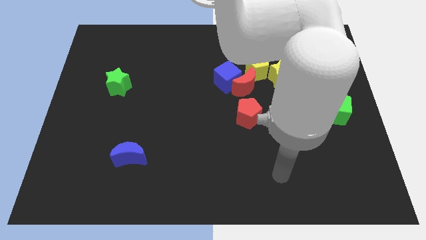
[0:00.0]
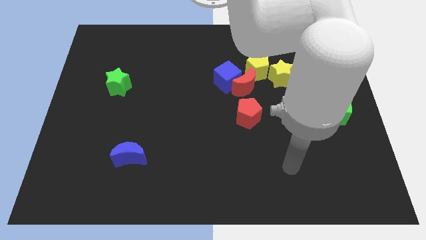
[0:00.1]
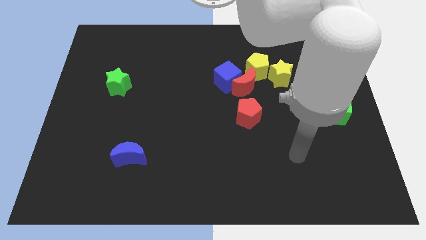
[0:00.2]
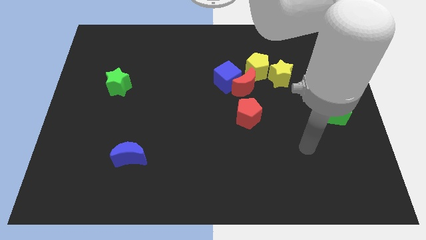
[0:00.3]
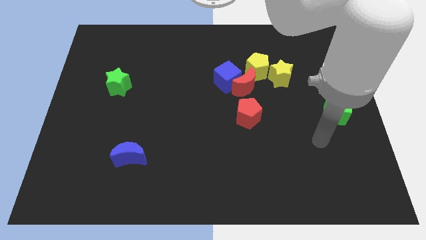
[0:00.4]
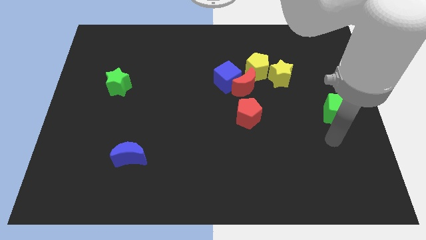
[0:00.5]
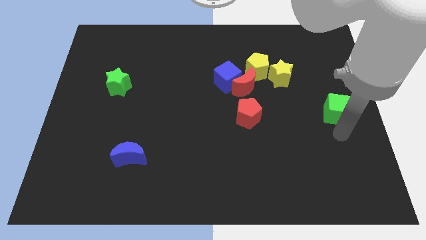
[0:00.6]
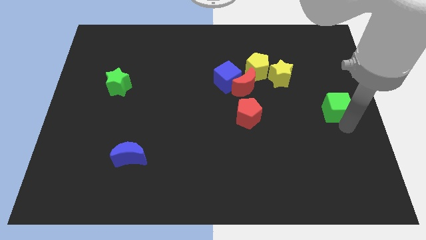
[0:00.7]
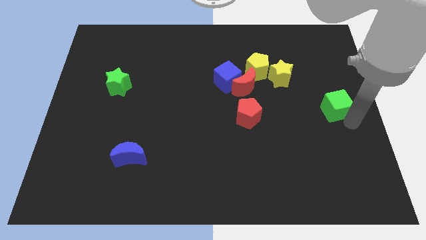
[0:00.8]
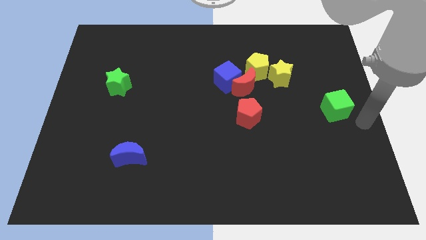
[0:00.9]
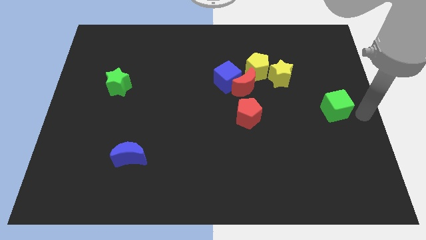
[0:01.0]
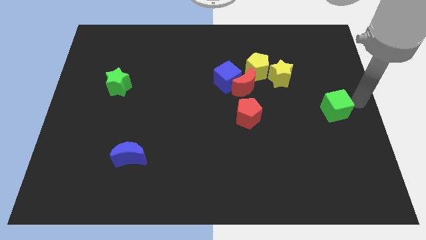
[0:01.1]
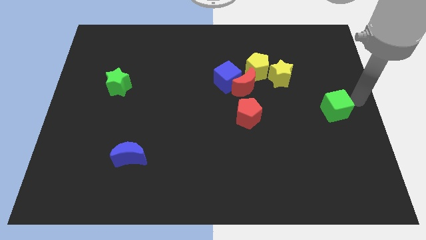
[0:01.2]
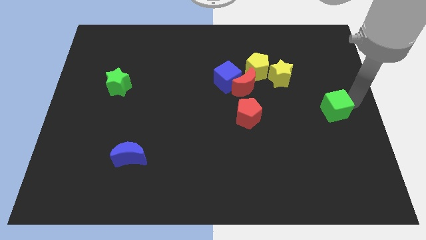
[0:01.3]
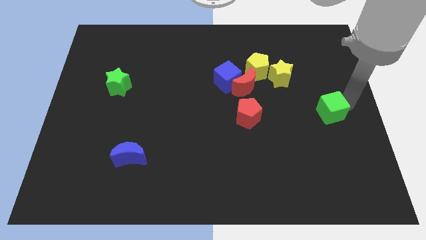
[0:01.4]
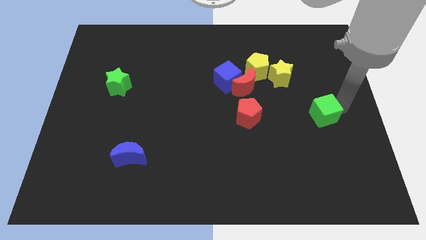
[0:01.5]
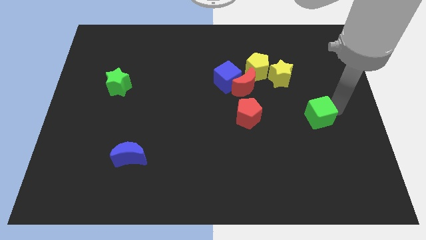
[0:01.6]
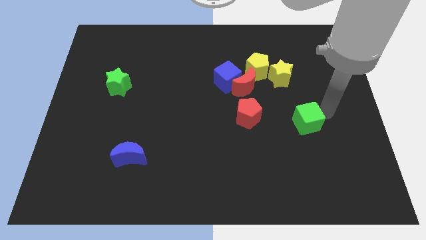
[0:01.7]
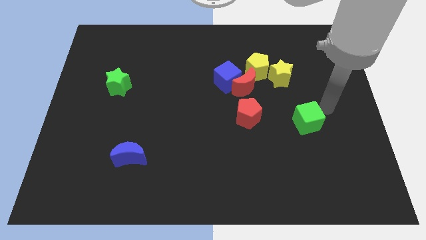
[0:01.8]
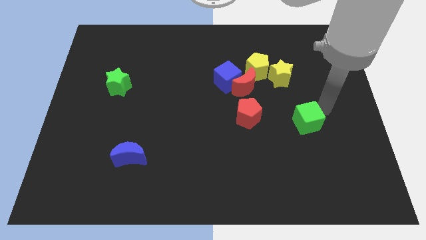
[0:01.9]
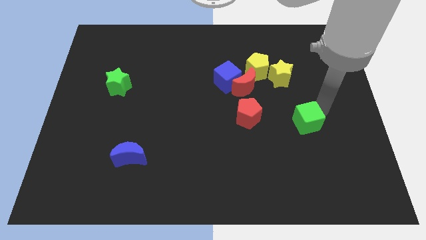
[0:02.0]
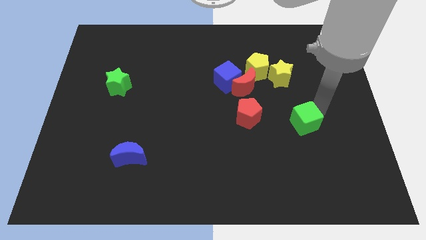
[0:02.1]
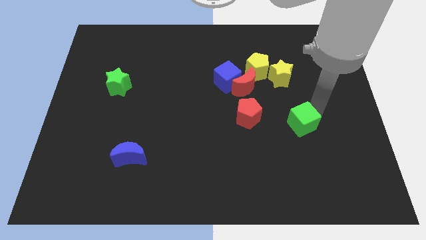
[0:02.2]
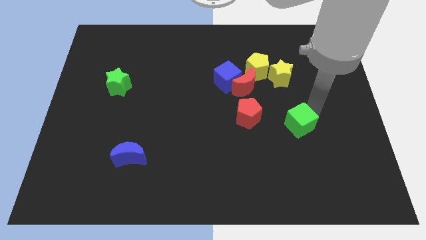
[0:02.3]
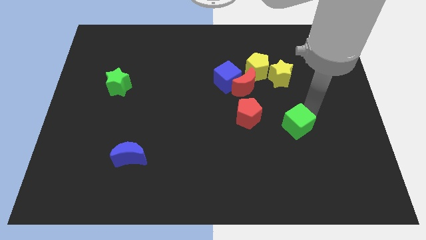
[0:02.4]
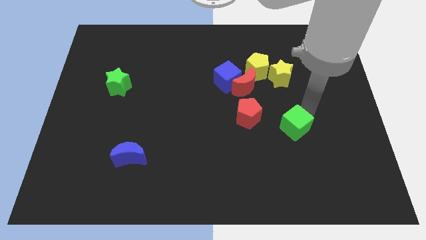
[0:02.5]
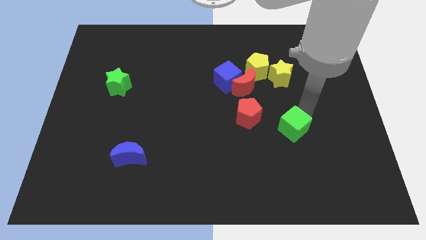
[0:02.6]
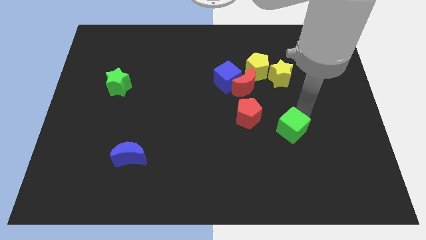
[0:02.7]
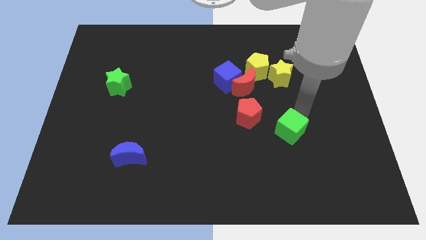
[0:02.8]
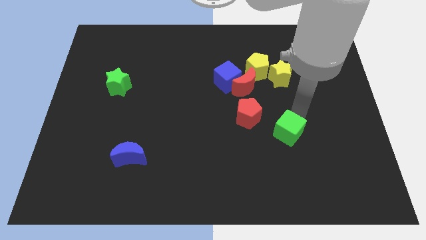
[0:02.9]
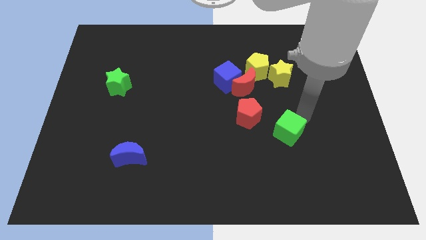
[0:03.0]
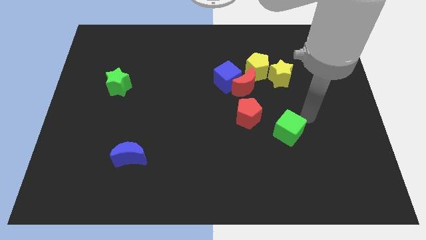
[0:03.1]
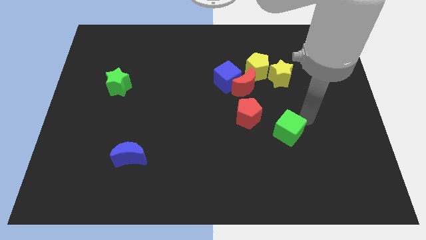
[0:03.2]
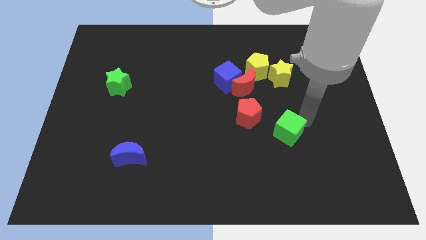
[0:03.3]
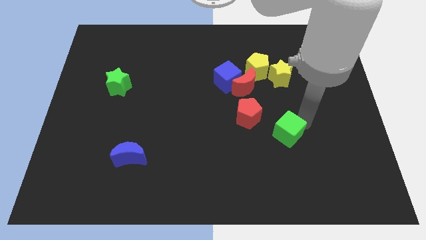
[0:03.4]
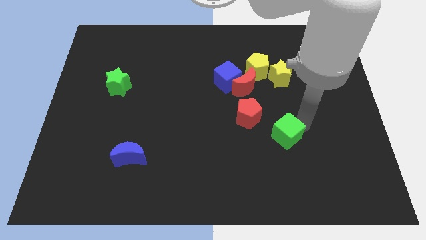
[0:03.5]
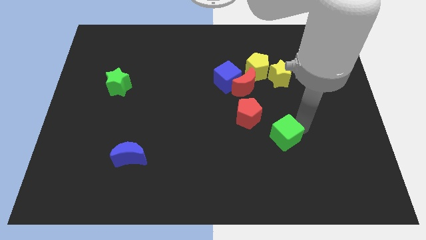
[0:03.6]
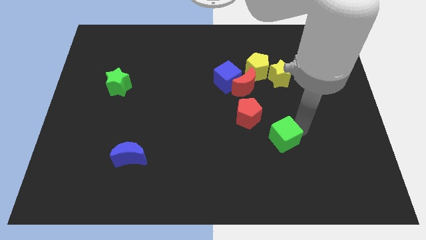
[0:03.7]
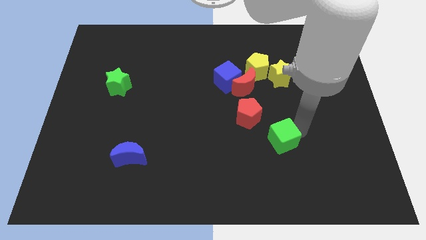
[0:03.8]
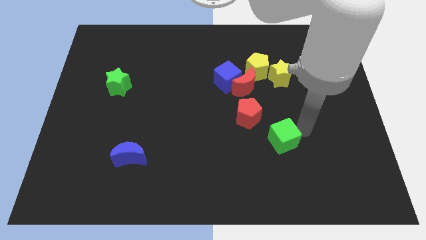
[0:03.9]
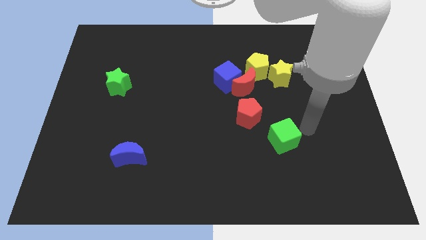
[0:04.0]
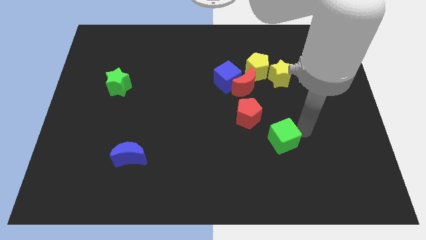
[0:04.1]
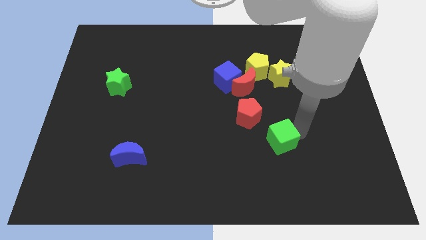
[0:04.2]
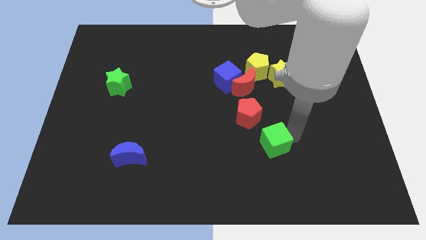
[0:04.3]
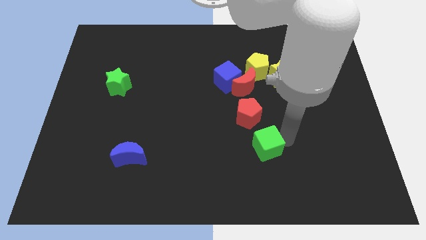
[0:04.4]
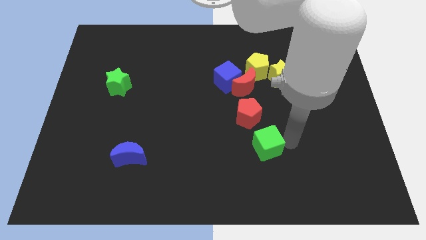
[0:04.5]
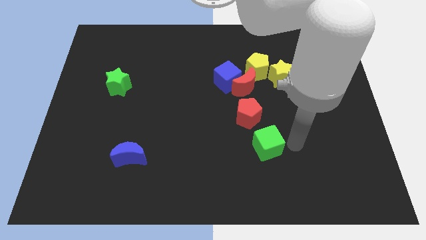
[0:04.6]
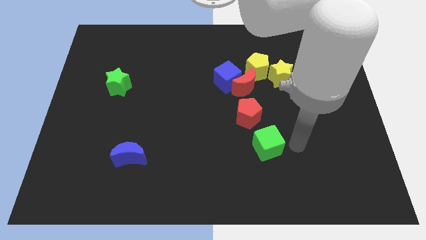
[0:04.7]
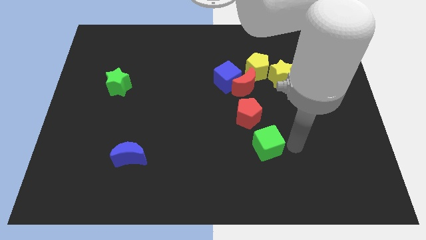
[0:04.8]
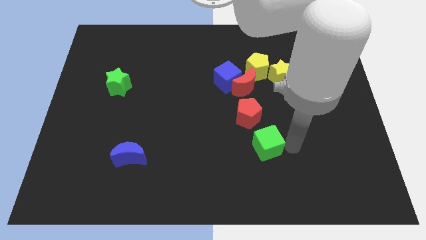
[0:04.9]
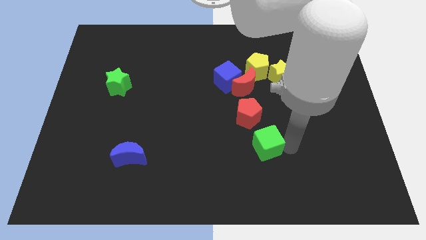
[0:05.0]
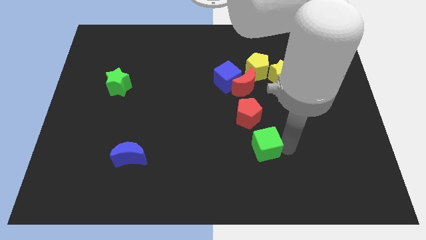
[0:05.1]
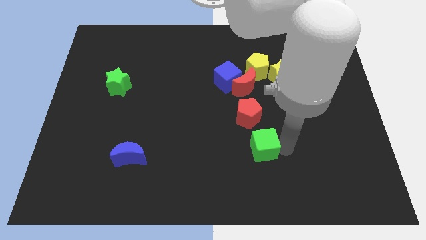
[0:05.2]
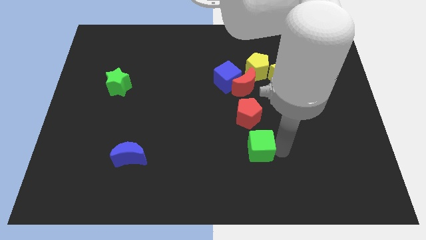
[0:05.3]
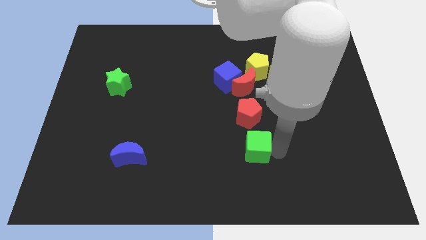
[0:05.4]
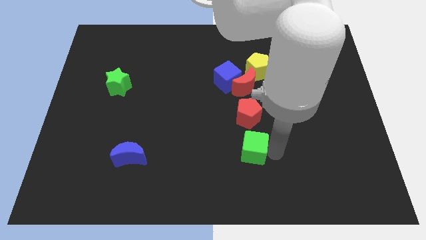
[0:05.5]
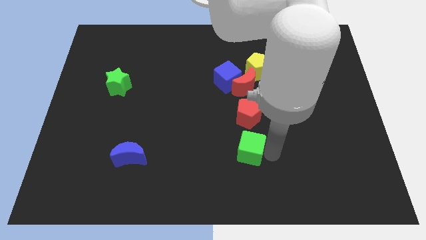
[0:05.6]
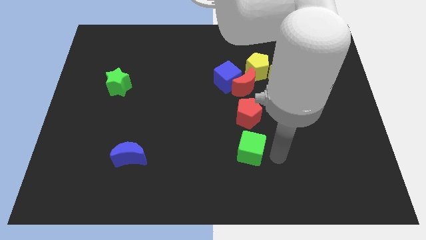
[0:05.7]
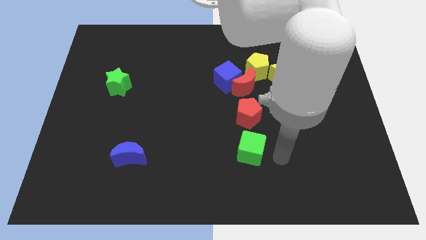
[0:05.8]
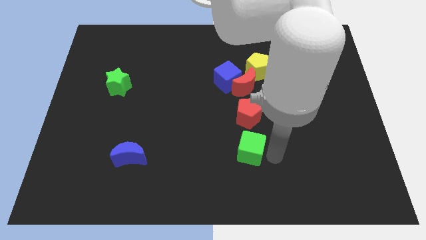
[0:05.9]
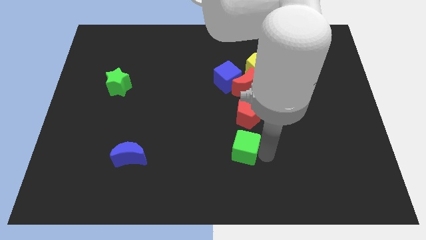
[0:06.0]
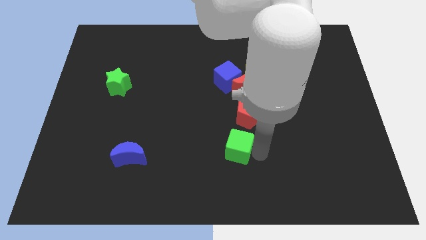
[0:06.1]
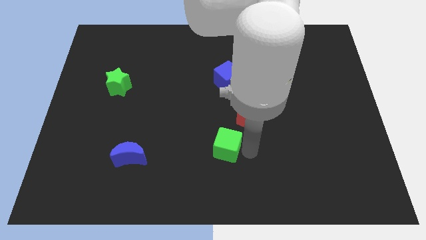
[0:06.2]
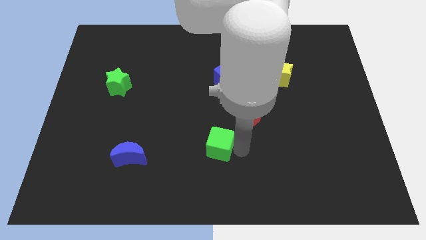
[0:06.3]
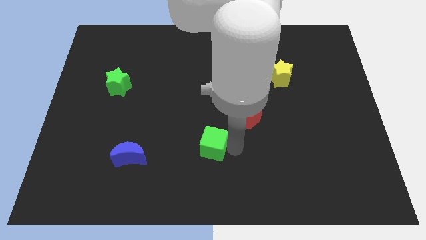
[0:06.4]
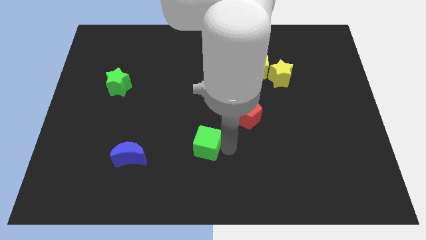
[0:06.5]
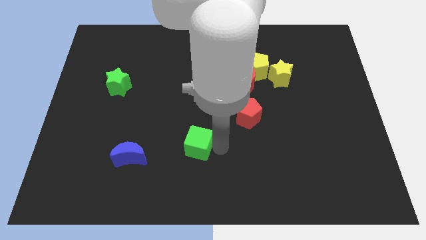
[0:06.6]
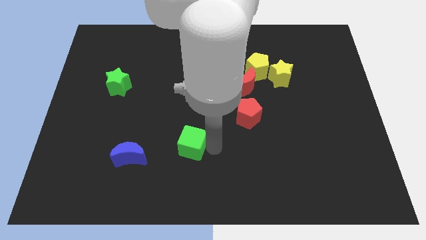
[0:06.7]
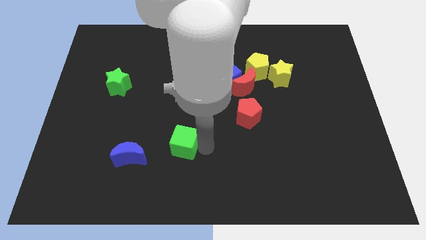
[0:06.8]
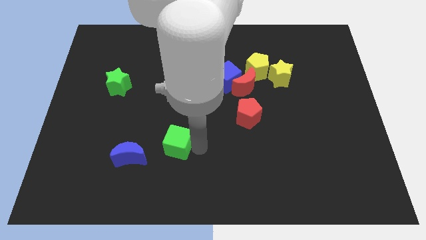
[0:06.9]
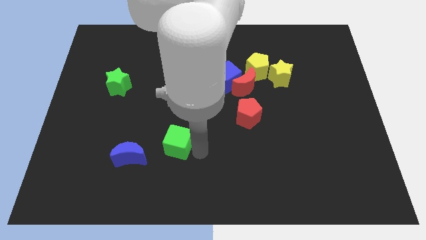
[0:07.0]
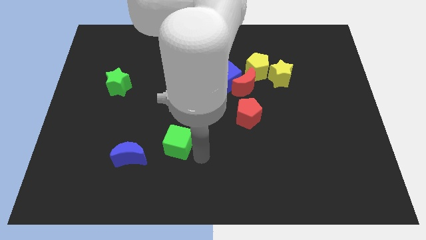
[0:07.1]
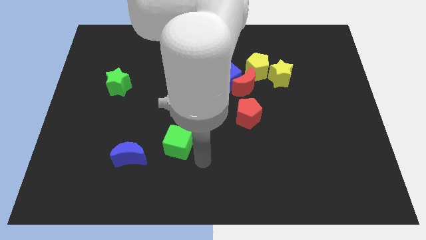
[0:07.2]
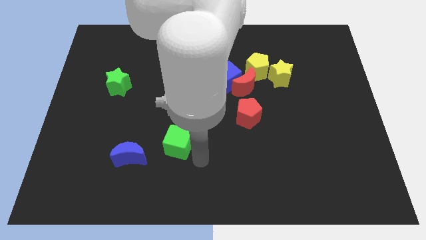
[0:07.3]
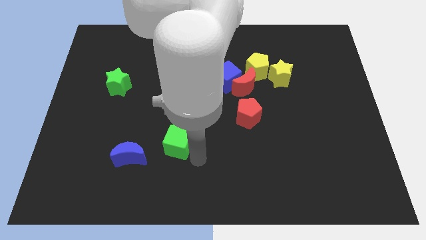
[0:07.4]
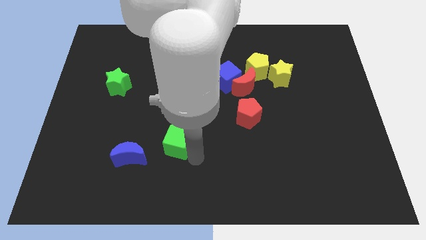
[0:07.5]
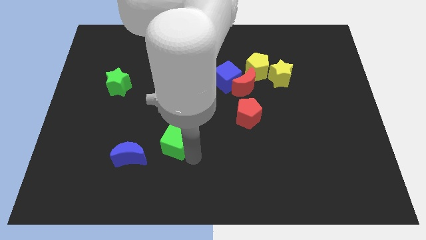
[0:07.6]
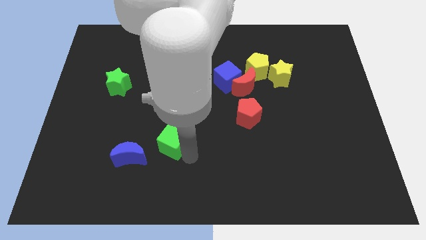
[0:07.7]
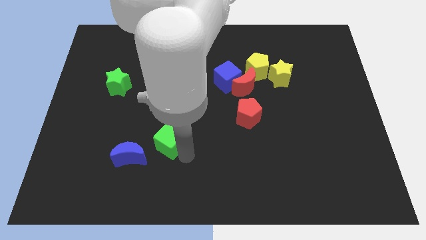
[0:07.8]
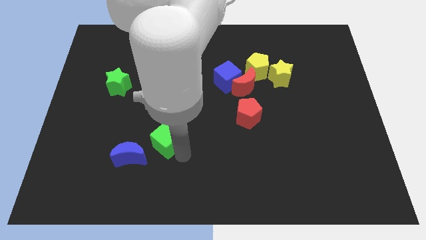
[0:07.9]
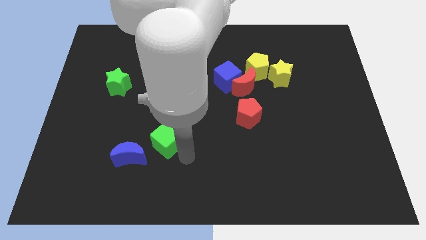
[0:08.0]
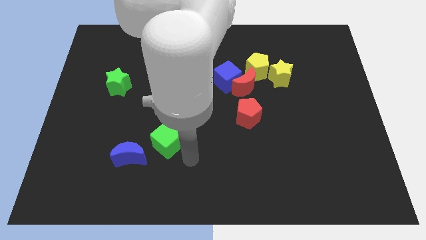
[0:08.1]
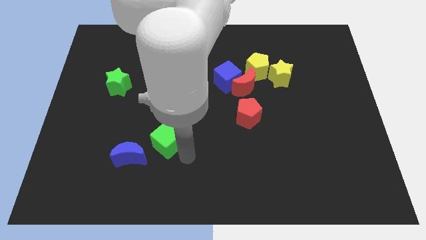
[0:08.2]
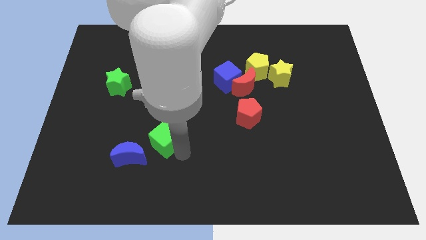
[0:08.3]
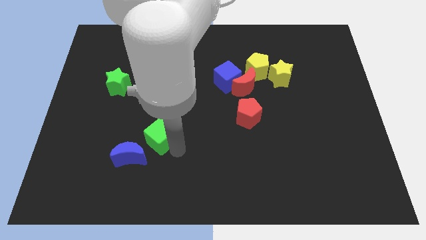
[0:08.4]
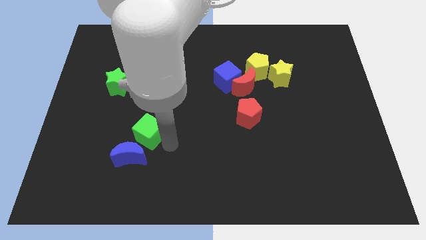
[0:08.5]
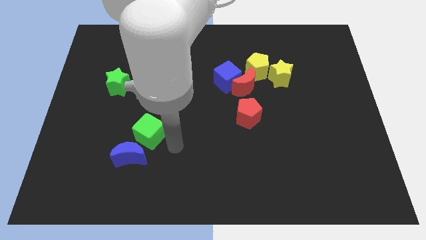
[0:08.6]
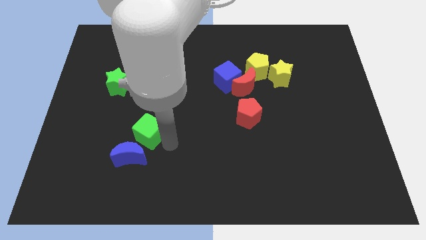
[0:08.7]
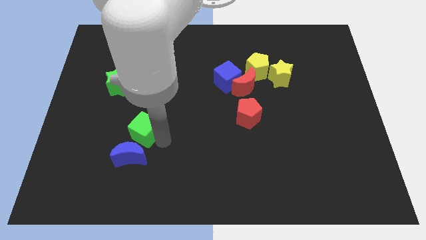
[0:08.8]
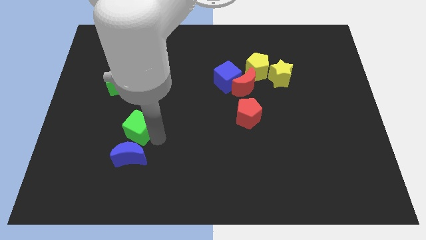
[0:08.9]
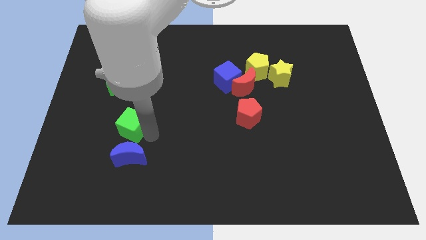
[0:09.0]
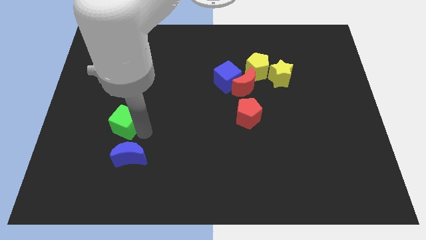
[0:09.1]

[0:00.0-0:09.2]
move the green cube to the bottom of the green star
